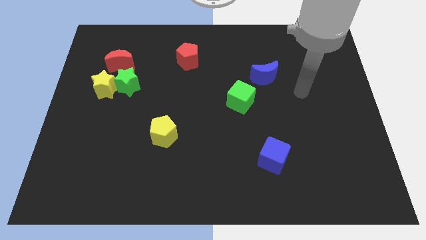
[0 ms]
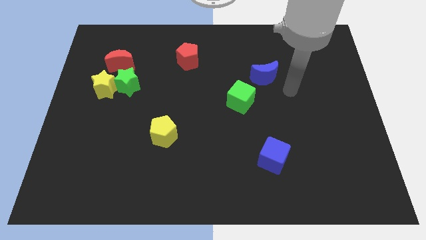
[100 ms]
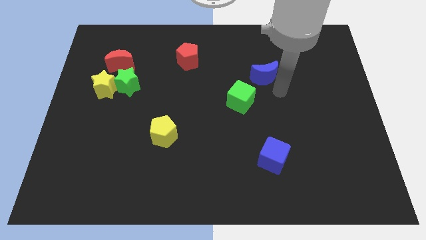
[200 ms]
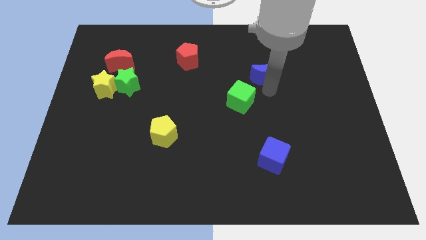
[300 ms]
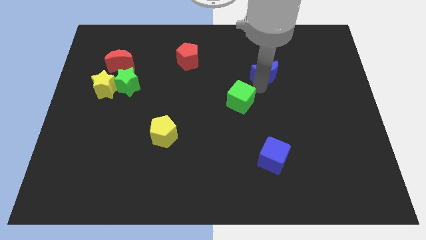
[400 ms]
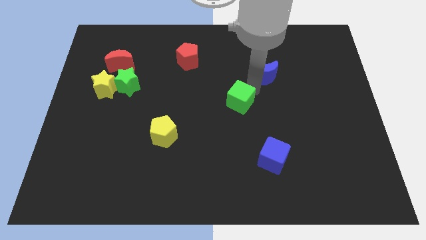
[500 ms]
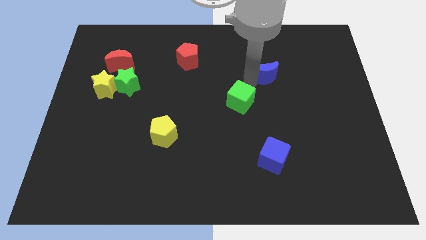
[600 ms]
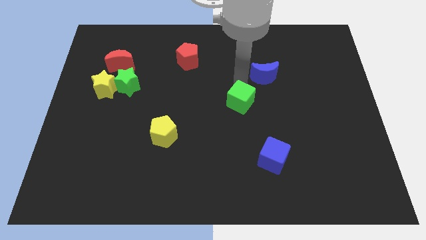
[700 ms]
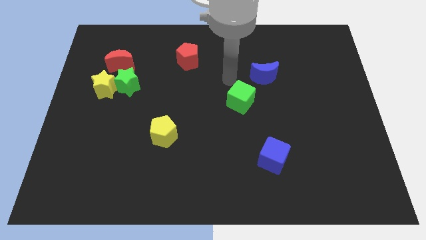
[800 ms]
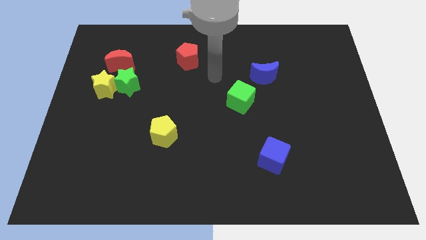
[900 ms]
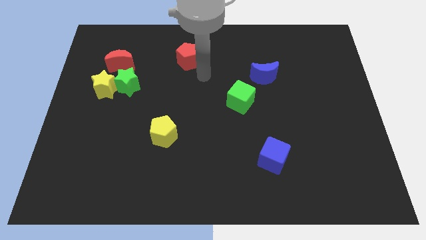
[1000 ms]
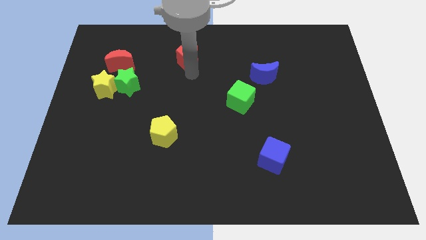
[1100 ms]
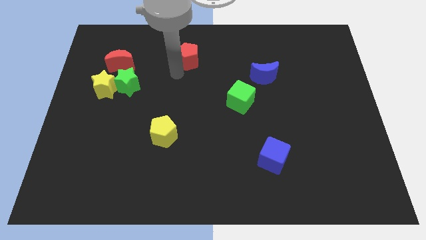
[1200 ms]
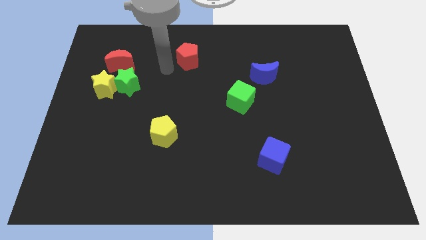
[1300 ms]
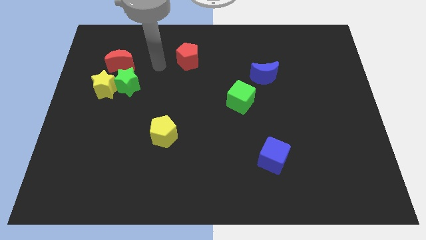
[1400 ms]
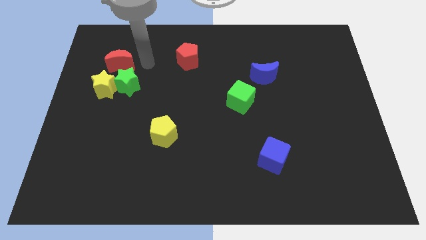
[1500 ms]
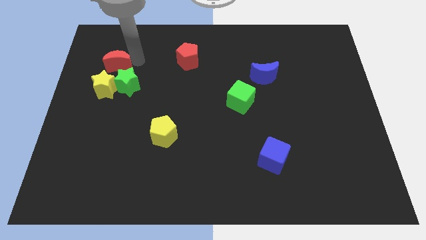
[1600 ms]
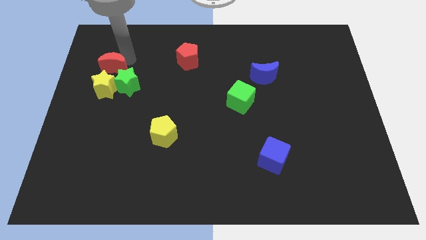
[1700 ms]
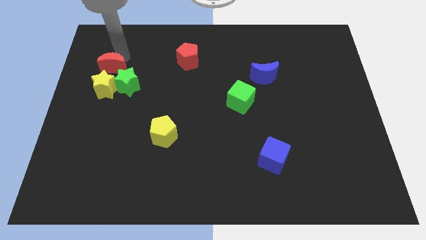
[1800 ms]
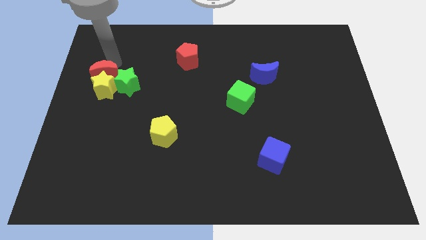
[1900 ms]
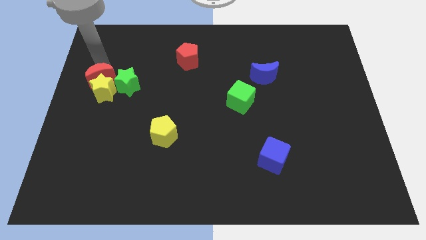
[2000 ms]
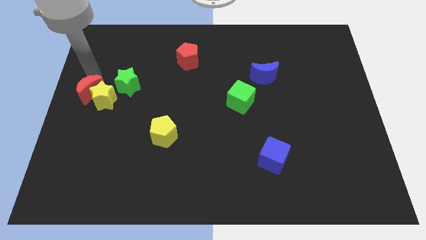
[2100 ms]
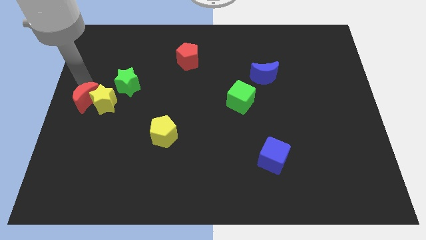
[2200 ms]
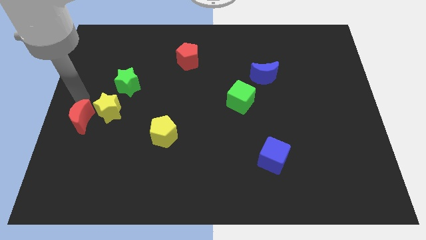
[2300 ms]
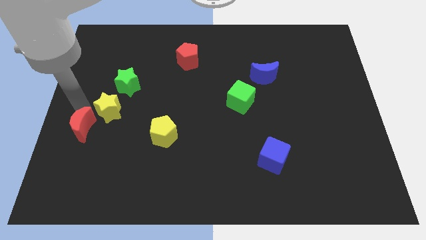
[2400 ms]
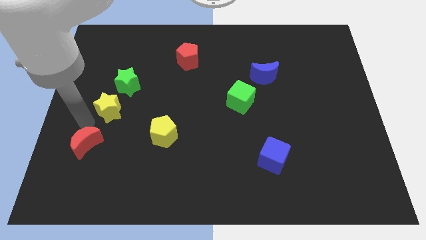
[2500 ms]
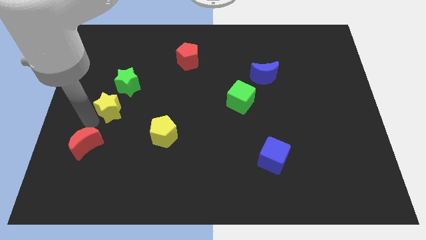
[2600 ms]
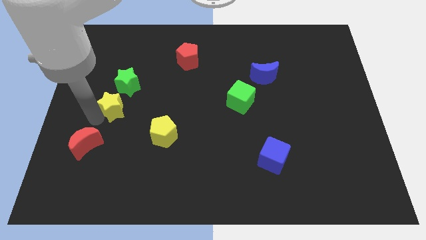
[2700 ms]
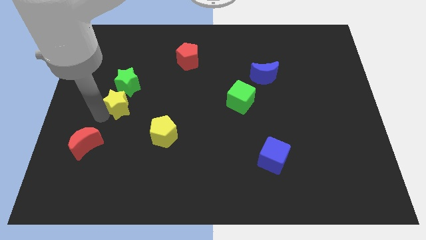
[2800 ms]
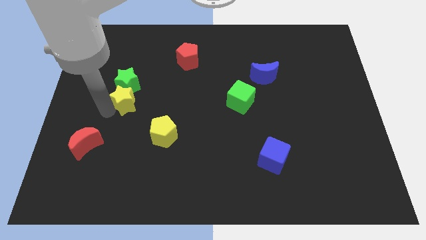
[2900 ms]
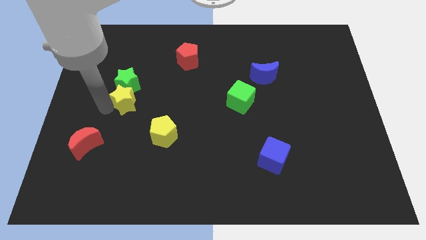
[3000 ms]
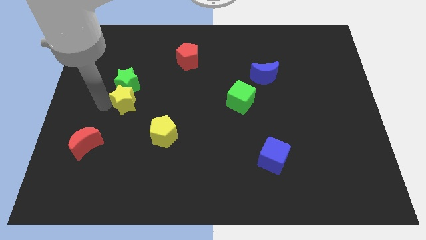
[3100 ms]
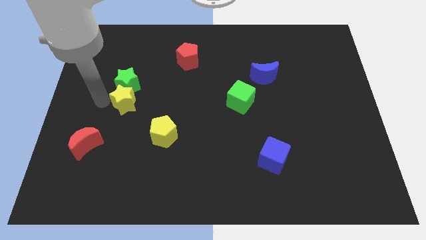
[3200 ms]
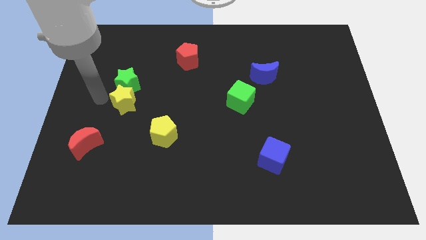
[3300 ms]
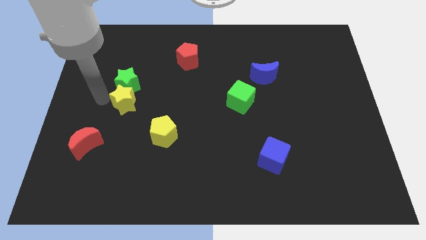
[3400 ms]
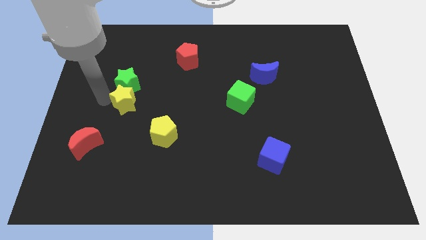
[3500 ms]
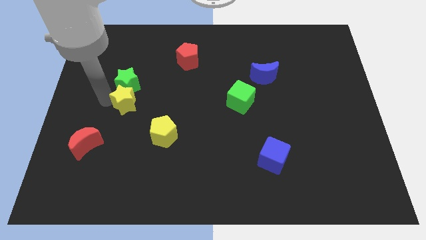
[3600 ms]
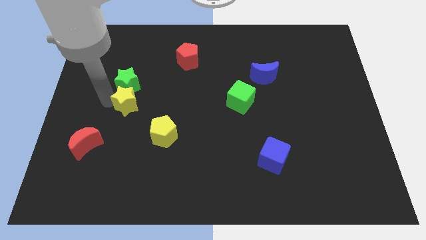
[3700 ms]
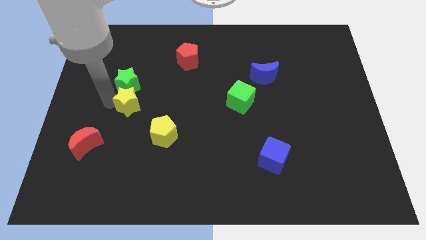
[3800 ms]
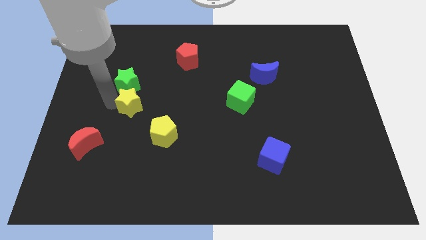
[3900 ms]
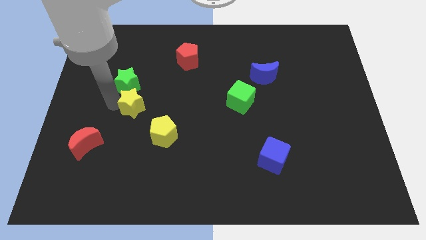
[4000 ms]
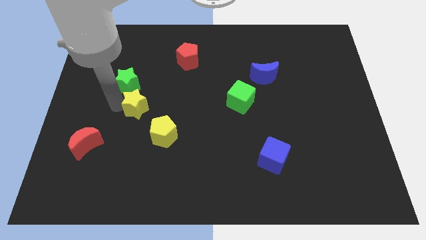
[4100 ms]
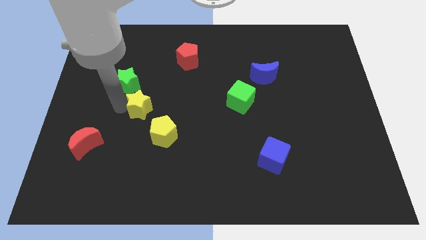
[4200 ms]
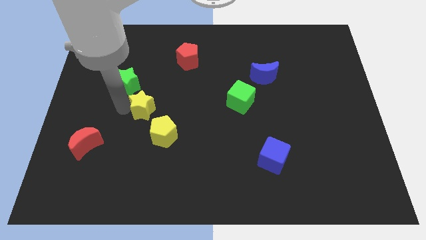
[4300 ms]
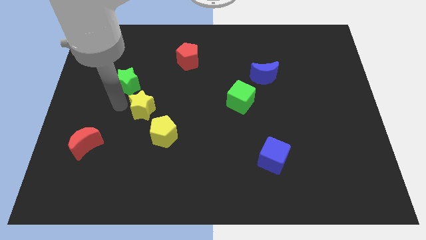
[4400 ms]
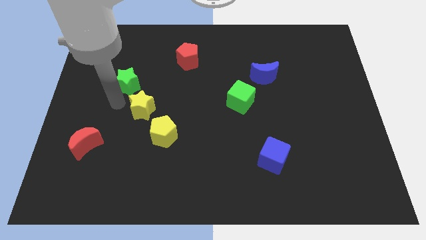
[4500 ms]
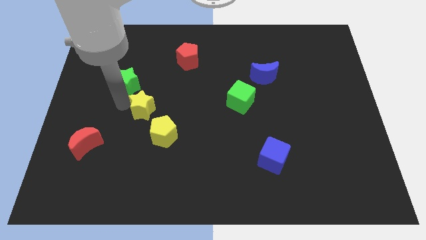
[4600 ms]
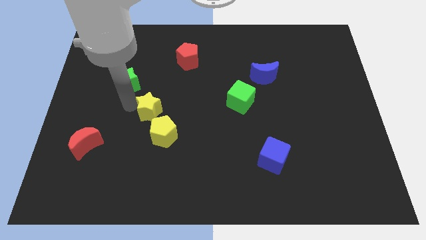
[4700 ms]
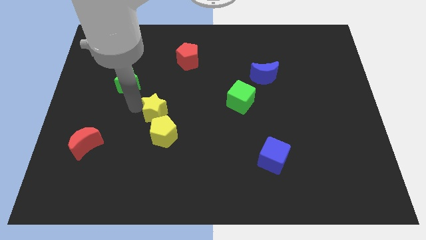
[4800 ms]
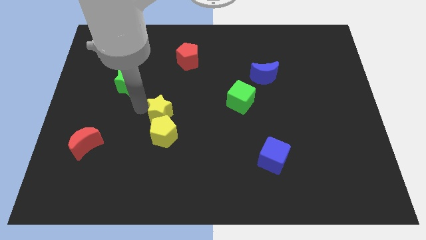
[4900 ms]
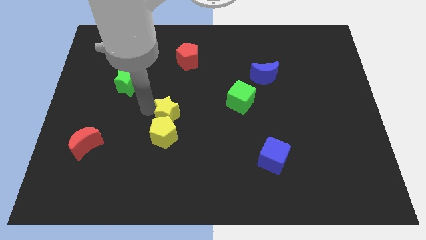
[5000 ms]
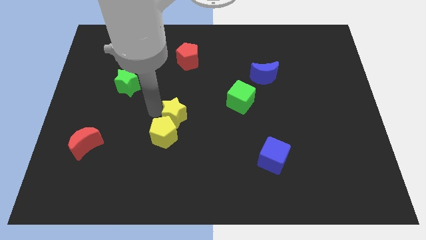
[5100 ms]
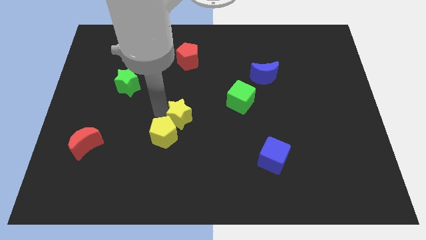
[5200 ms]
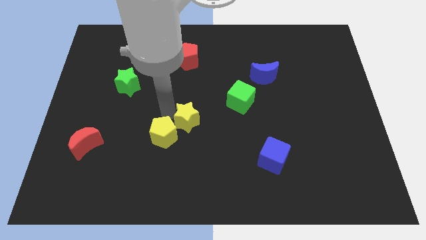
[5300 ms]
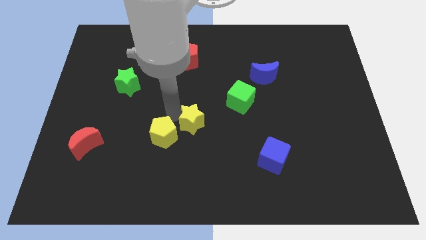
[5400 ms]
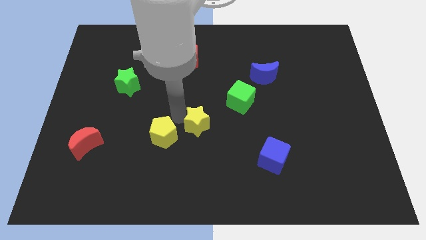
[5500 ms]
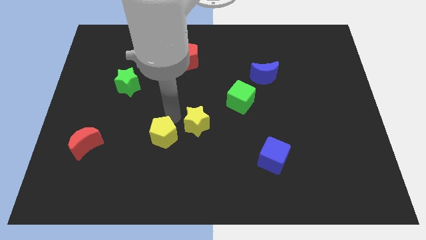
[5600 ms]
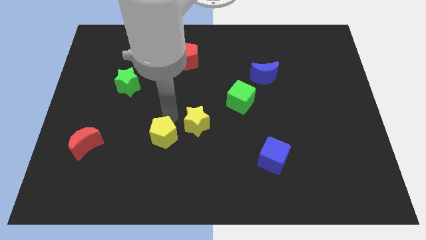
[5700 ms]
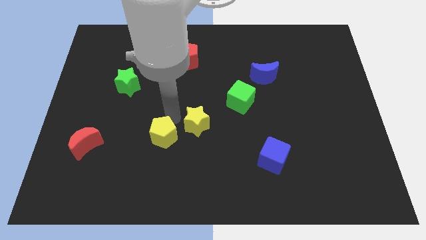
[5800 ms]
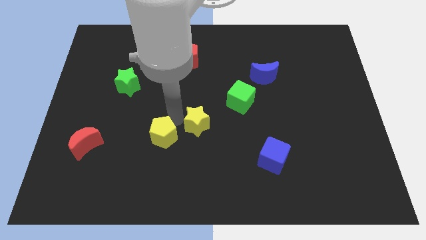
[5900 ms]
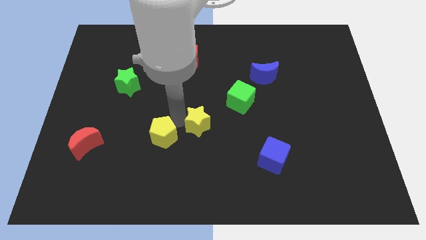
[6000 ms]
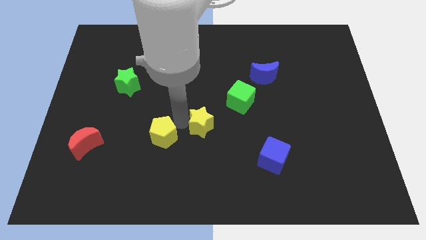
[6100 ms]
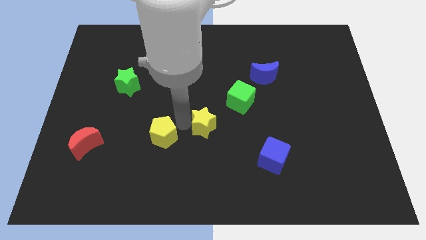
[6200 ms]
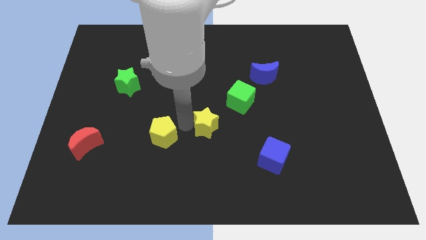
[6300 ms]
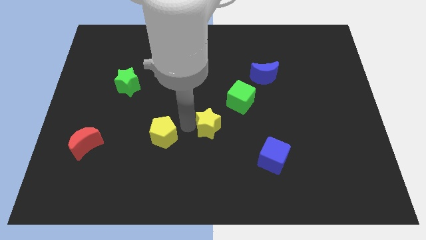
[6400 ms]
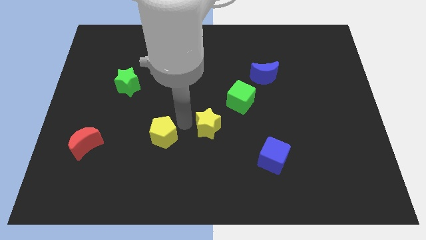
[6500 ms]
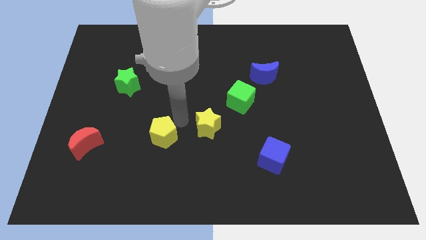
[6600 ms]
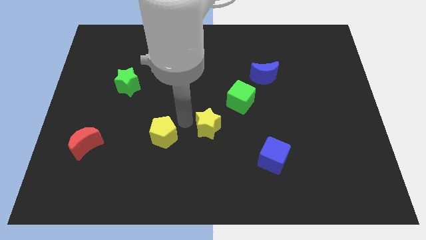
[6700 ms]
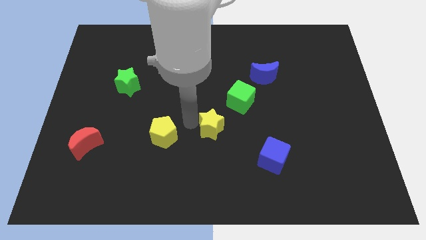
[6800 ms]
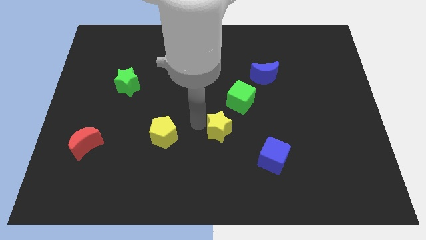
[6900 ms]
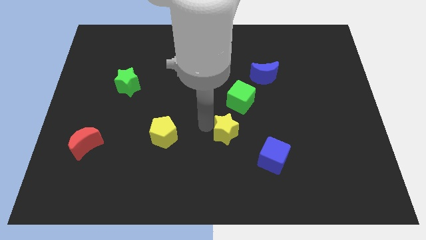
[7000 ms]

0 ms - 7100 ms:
move the yellow star below the green cube

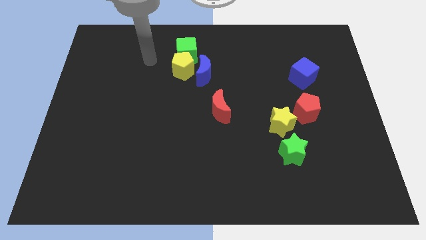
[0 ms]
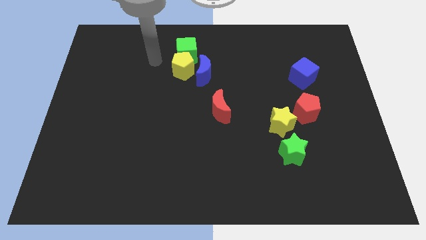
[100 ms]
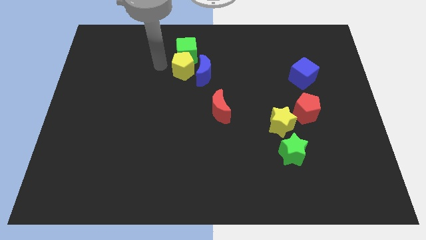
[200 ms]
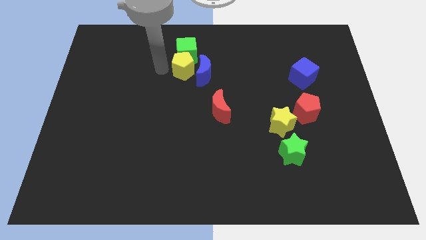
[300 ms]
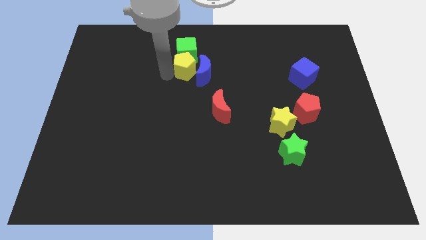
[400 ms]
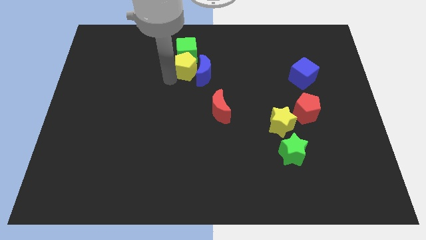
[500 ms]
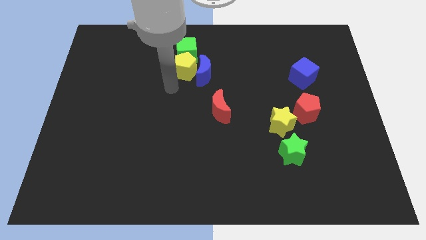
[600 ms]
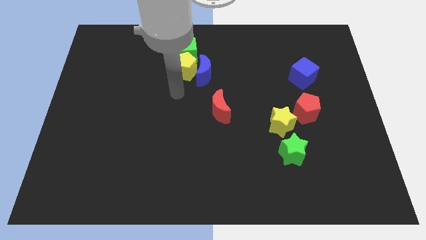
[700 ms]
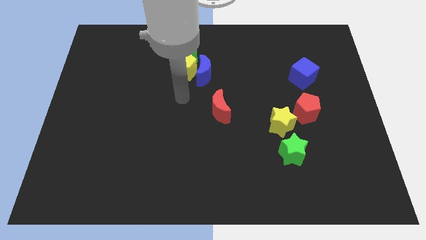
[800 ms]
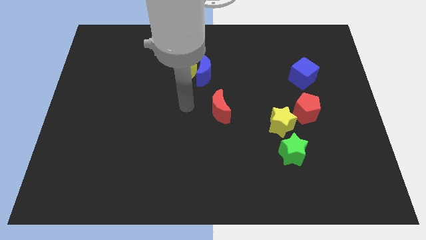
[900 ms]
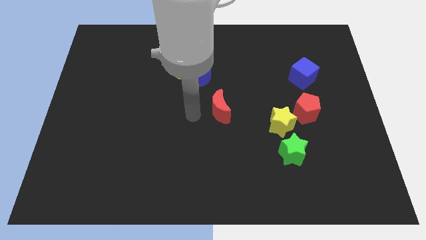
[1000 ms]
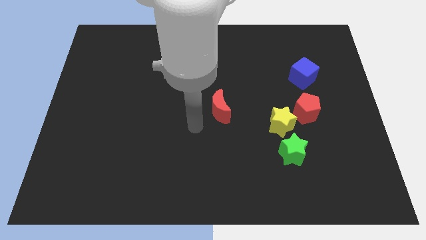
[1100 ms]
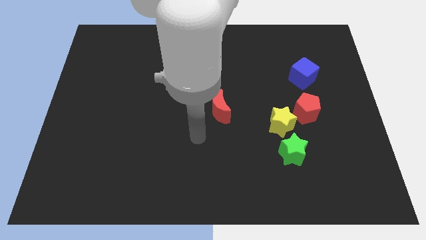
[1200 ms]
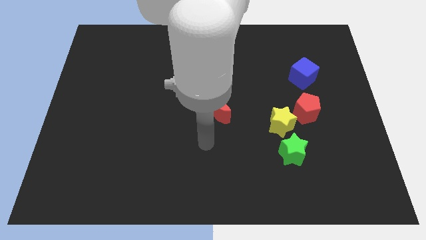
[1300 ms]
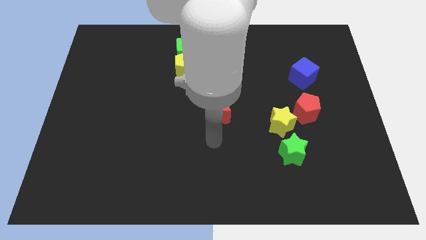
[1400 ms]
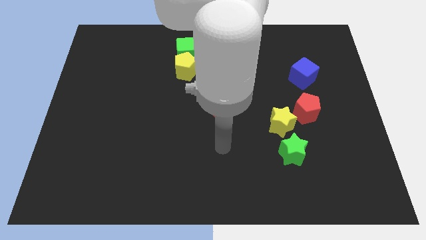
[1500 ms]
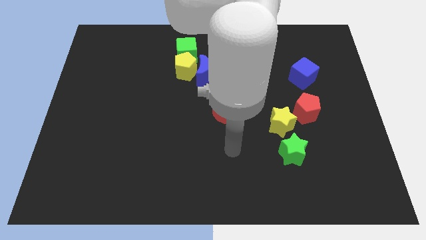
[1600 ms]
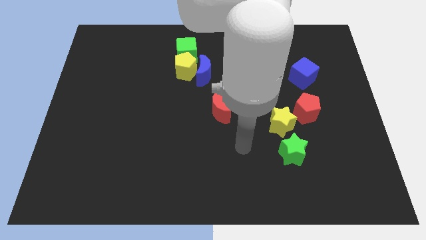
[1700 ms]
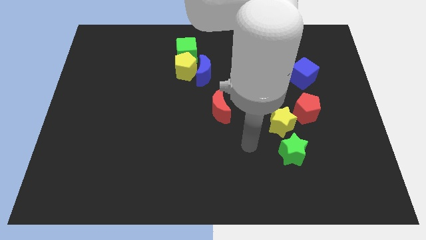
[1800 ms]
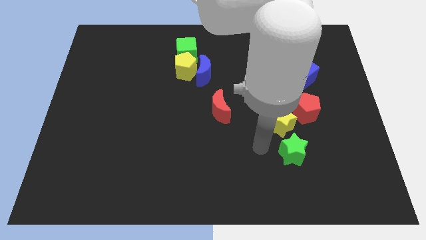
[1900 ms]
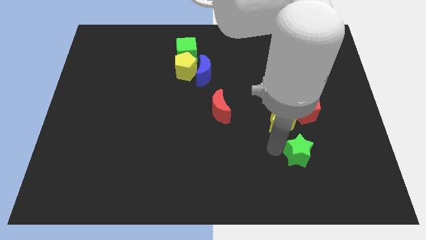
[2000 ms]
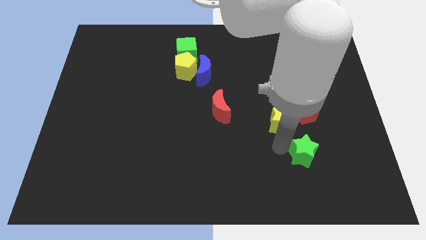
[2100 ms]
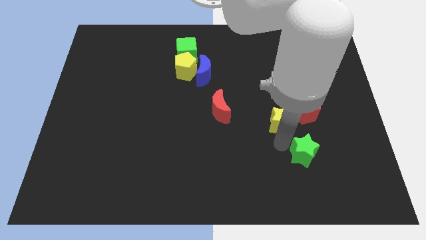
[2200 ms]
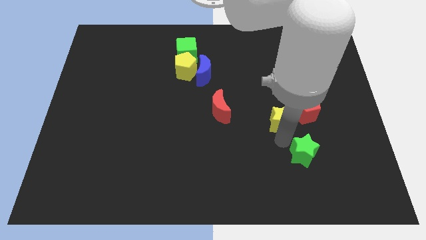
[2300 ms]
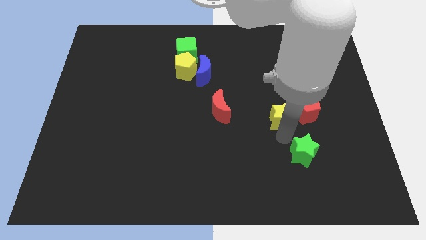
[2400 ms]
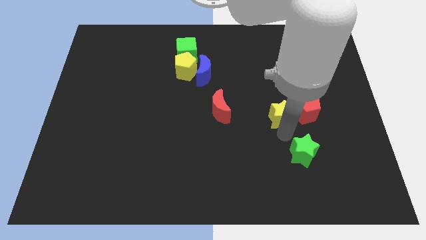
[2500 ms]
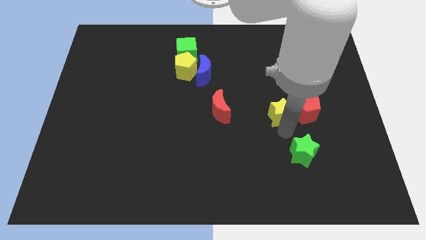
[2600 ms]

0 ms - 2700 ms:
move the yellow star to the top left side of the red pentagon
